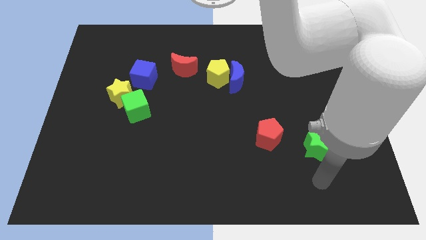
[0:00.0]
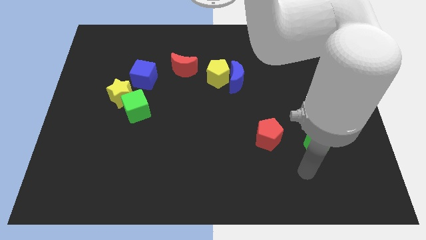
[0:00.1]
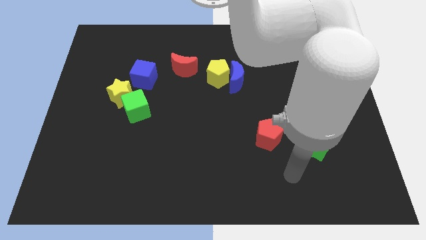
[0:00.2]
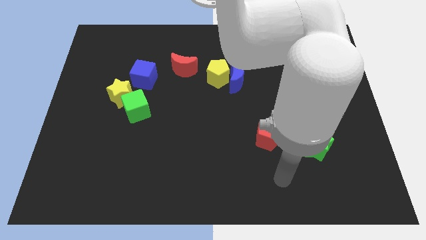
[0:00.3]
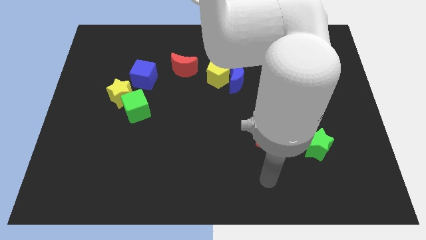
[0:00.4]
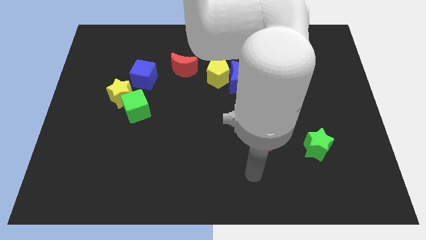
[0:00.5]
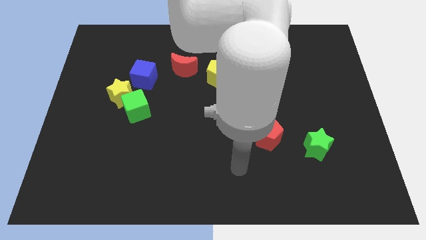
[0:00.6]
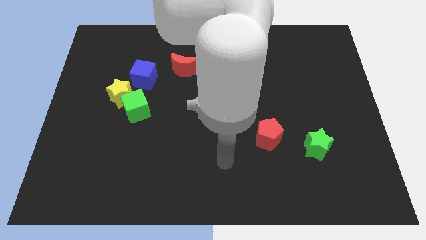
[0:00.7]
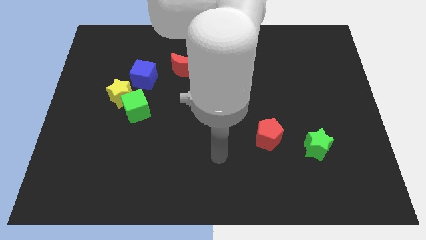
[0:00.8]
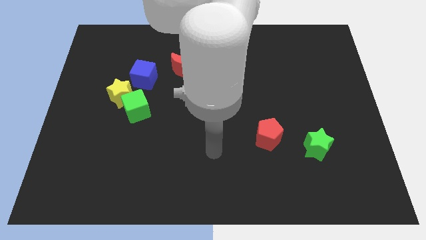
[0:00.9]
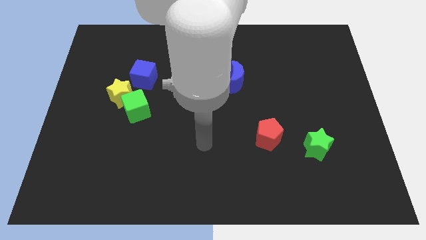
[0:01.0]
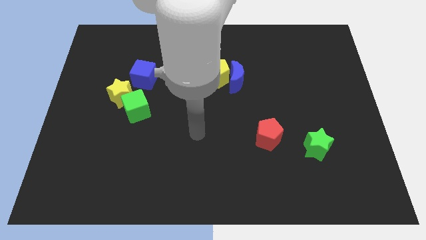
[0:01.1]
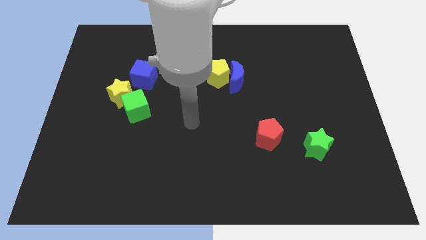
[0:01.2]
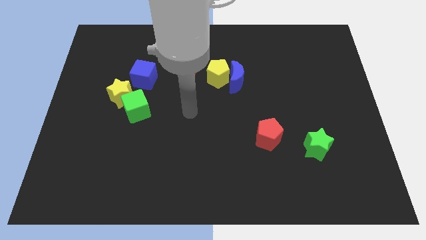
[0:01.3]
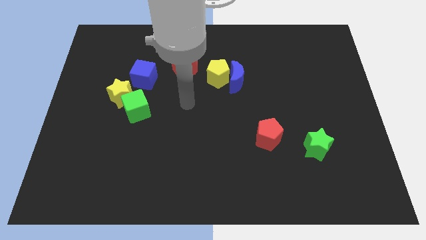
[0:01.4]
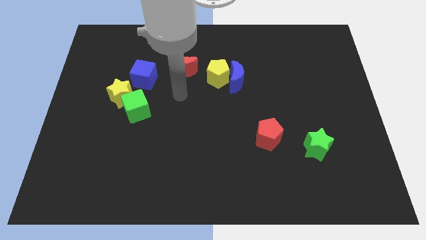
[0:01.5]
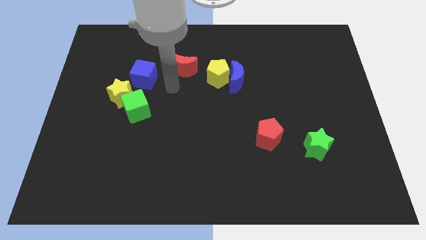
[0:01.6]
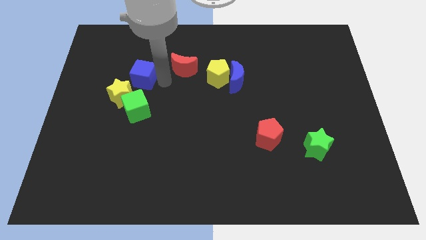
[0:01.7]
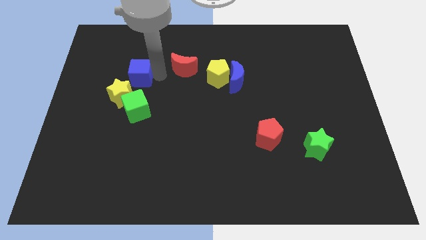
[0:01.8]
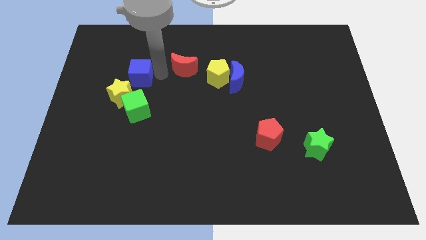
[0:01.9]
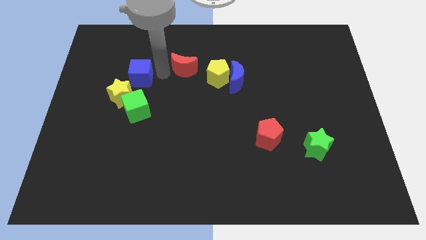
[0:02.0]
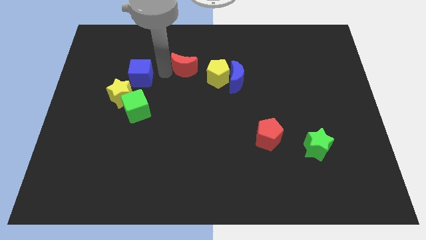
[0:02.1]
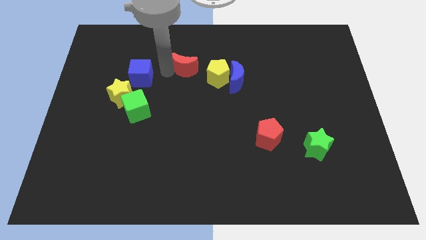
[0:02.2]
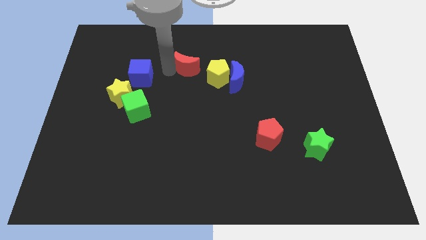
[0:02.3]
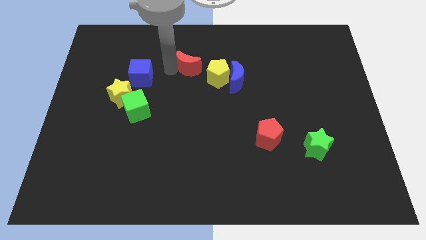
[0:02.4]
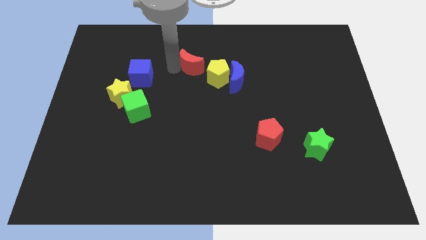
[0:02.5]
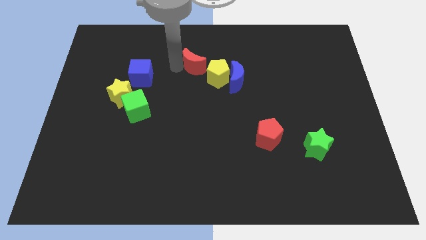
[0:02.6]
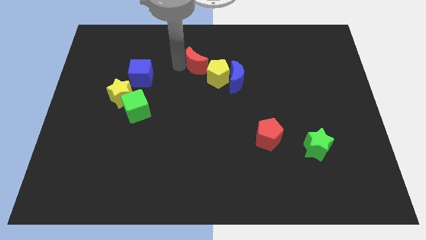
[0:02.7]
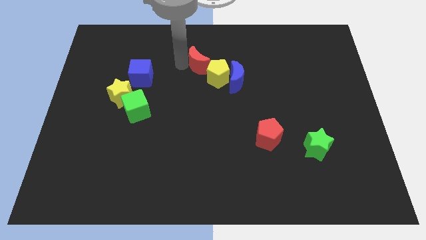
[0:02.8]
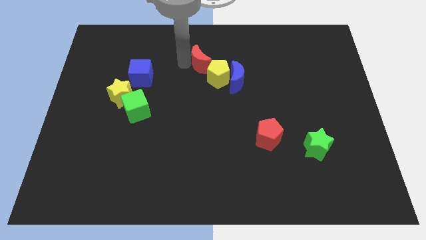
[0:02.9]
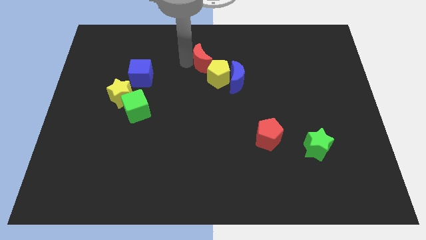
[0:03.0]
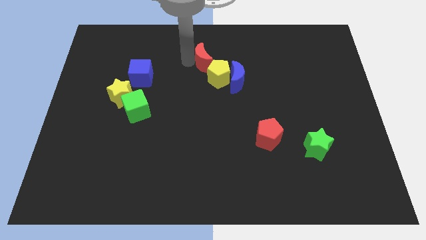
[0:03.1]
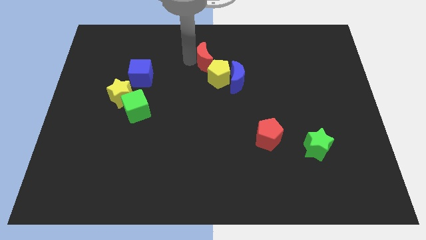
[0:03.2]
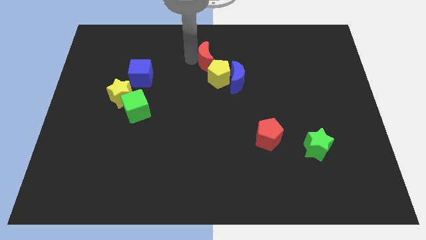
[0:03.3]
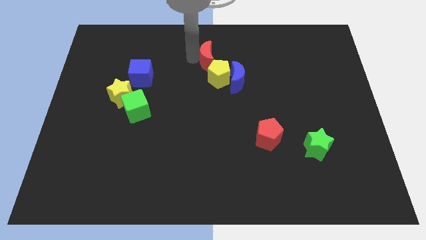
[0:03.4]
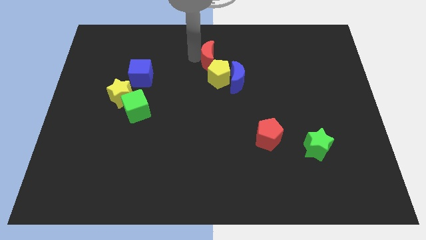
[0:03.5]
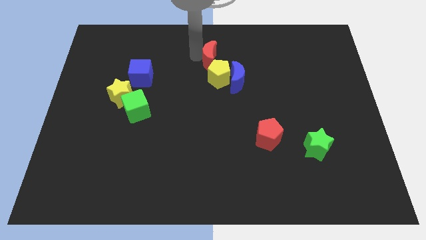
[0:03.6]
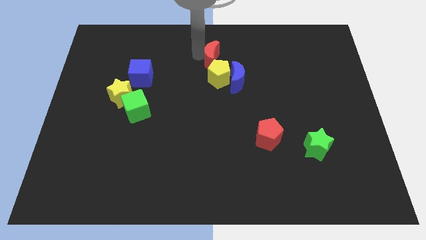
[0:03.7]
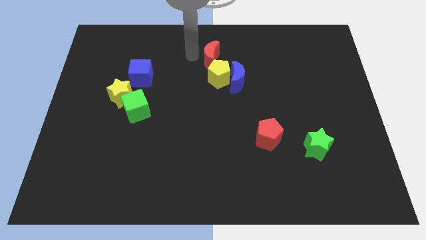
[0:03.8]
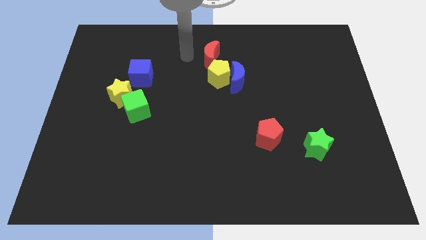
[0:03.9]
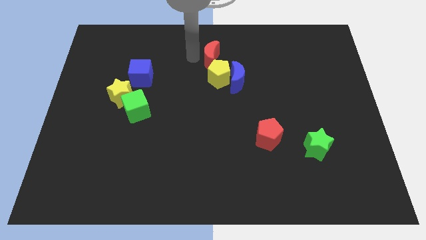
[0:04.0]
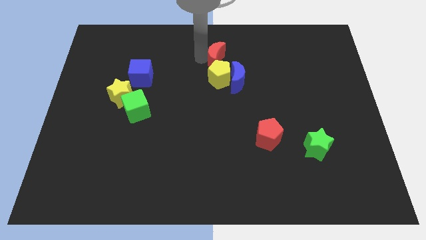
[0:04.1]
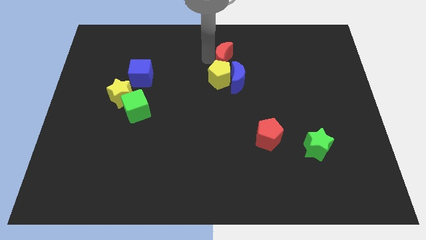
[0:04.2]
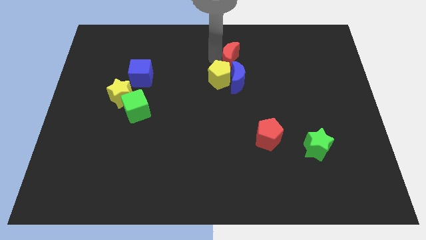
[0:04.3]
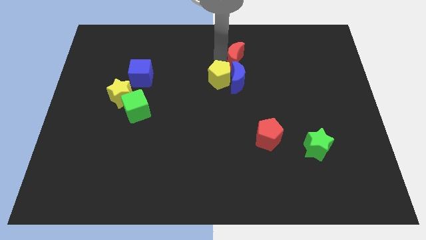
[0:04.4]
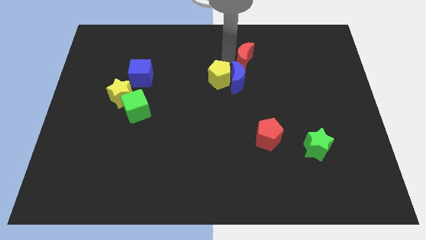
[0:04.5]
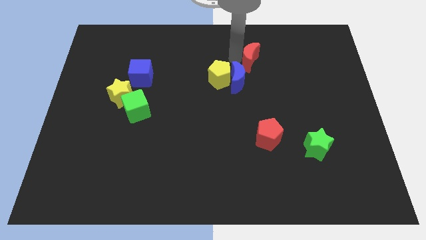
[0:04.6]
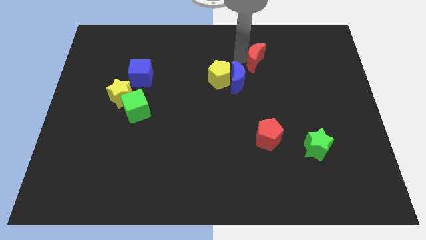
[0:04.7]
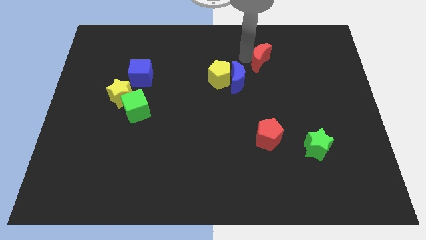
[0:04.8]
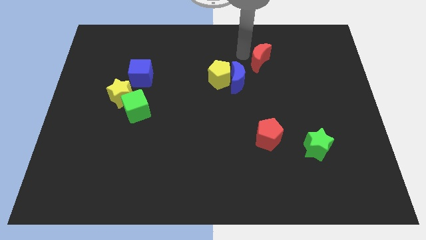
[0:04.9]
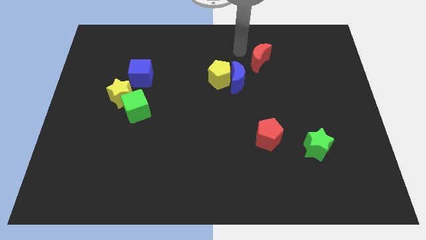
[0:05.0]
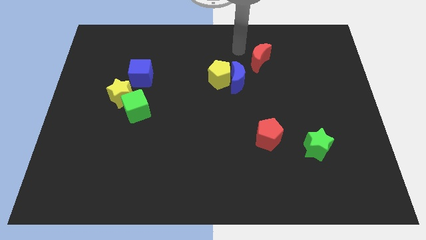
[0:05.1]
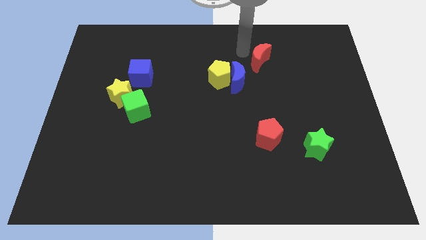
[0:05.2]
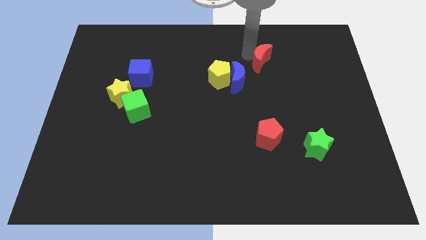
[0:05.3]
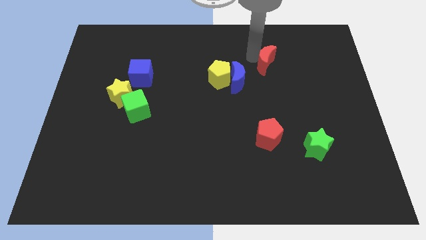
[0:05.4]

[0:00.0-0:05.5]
move the red moon to the right

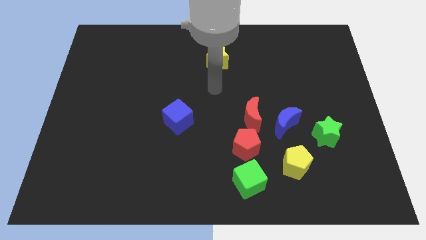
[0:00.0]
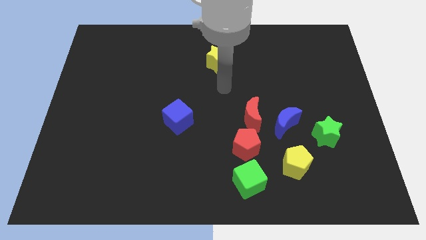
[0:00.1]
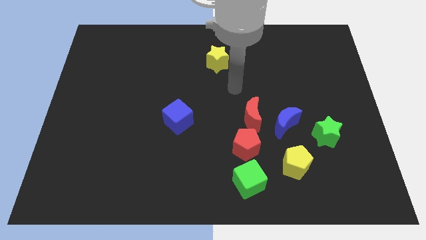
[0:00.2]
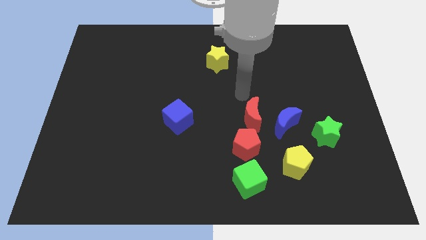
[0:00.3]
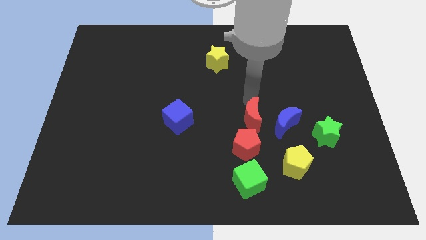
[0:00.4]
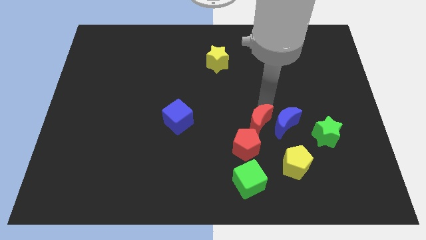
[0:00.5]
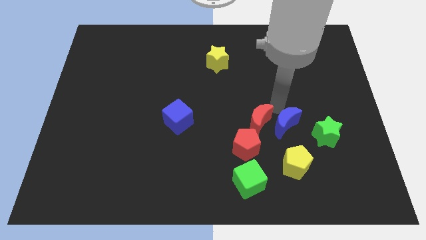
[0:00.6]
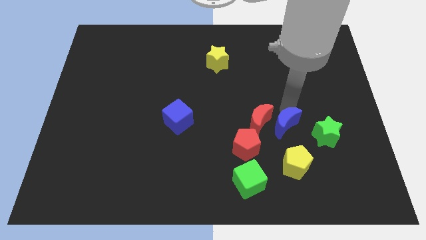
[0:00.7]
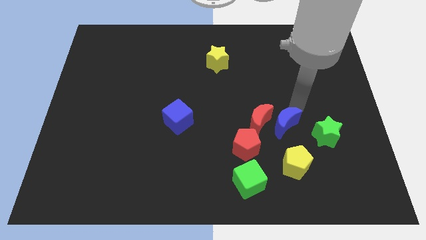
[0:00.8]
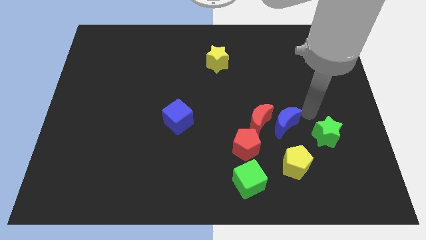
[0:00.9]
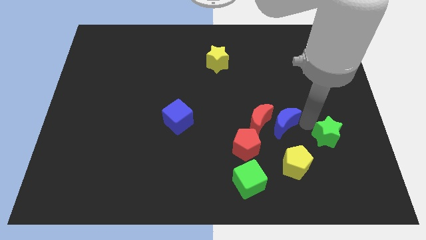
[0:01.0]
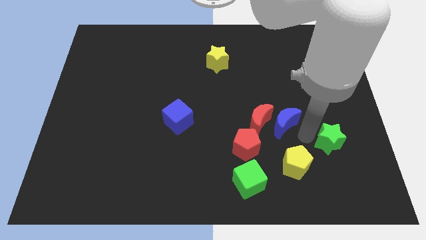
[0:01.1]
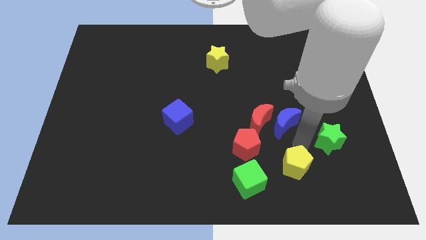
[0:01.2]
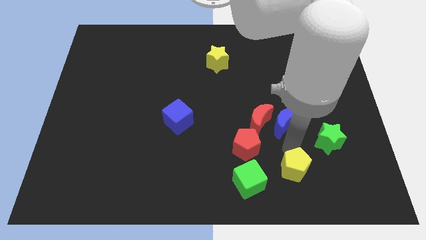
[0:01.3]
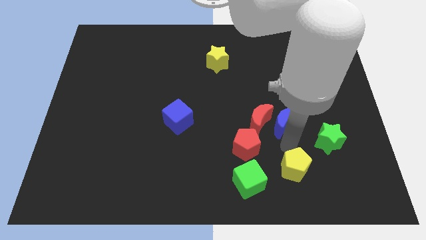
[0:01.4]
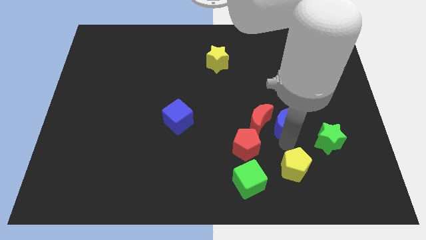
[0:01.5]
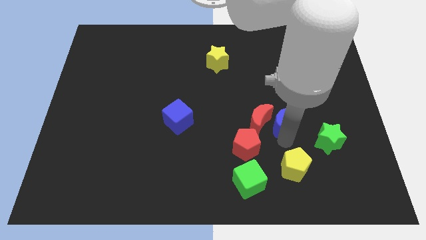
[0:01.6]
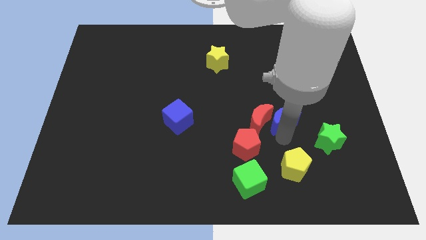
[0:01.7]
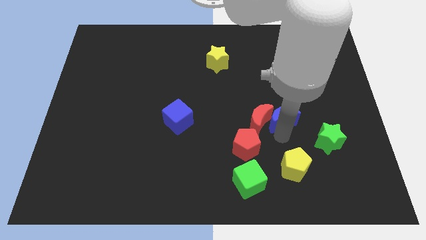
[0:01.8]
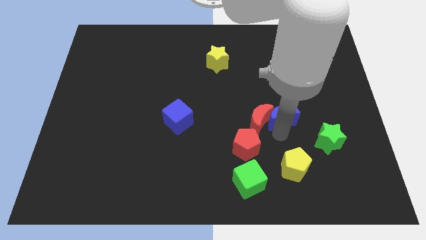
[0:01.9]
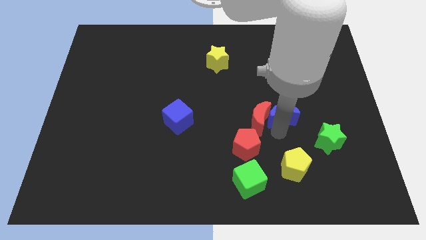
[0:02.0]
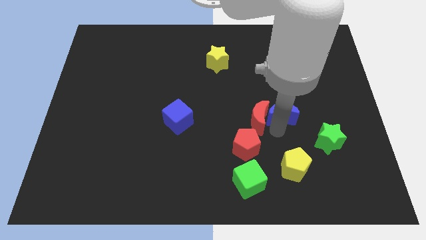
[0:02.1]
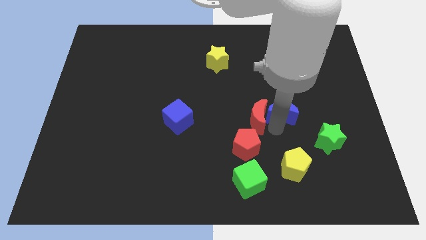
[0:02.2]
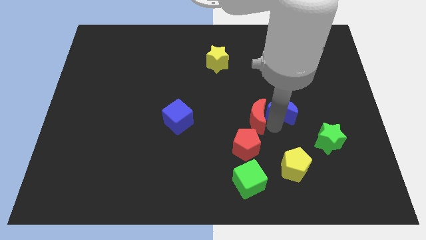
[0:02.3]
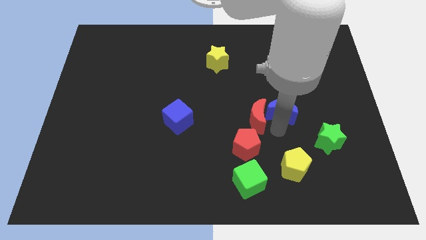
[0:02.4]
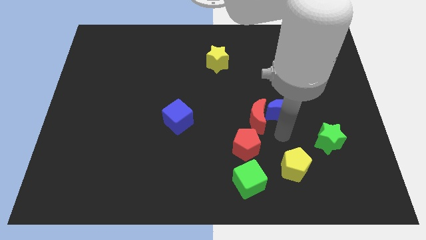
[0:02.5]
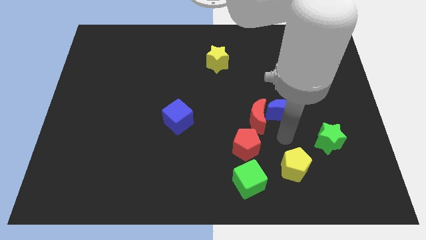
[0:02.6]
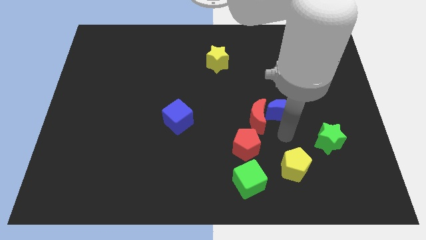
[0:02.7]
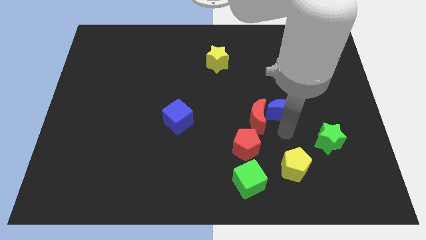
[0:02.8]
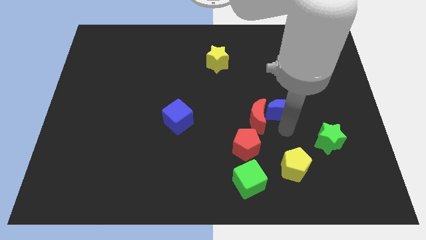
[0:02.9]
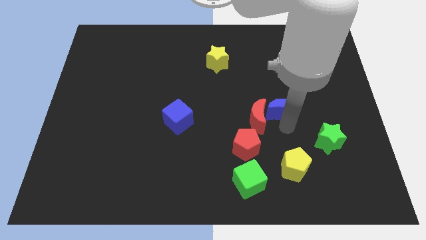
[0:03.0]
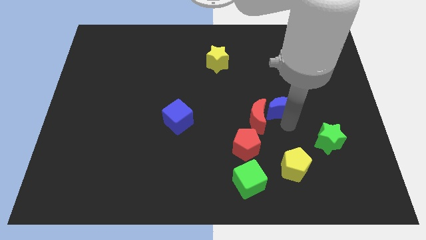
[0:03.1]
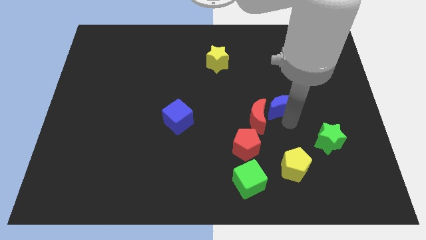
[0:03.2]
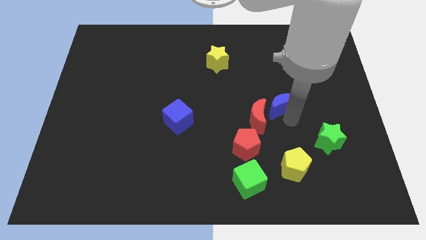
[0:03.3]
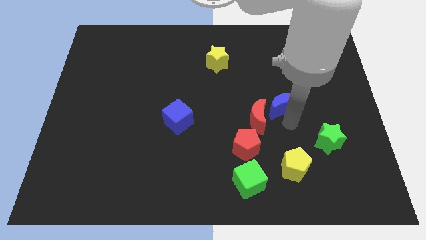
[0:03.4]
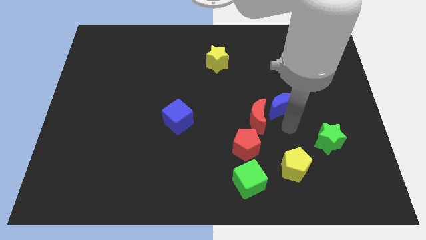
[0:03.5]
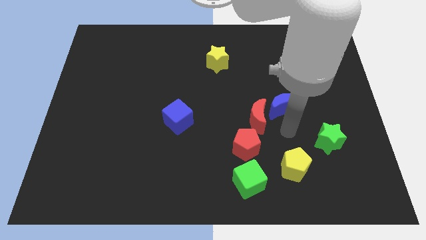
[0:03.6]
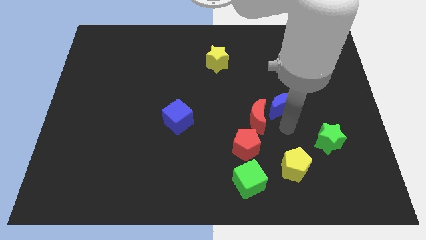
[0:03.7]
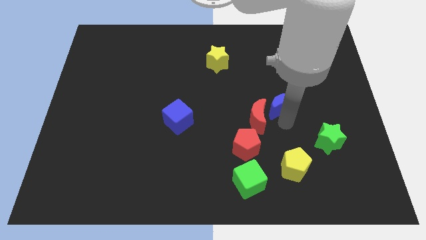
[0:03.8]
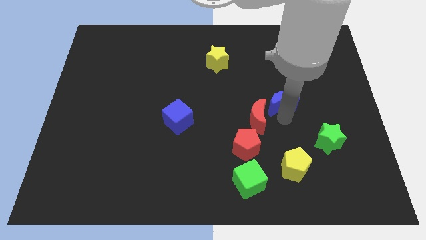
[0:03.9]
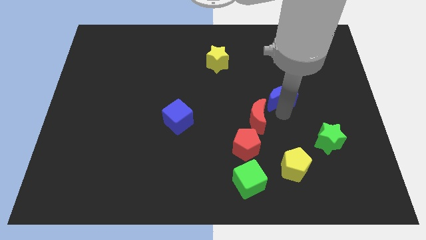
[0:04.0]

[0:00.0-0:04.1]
move the blue moon slightly up
